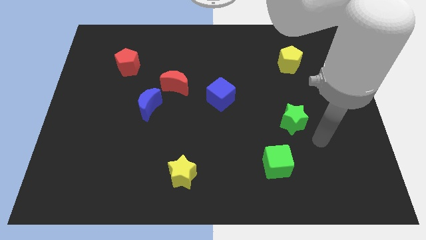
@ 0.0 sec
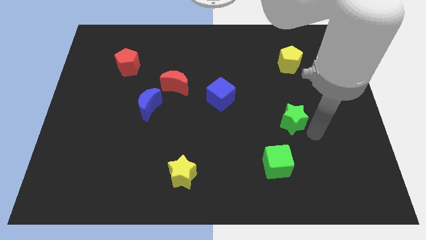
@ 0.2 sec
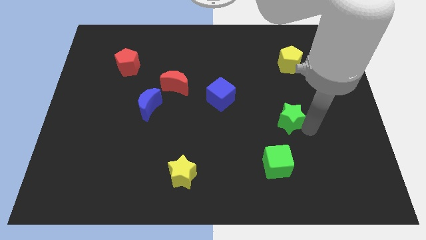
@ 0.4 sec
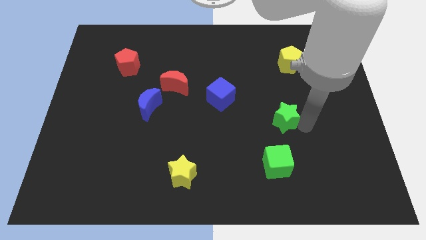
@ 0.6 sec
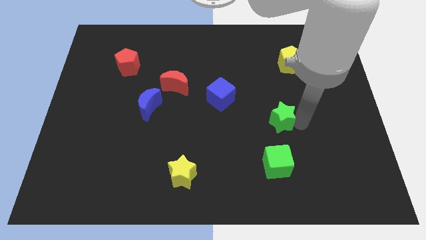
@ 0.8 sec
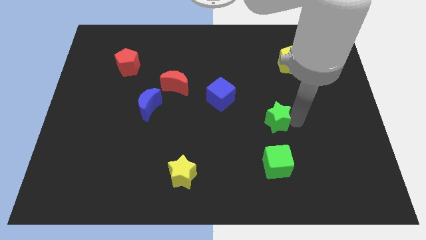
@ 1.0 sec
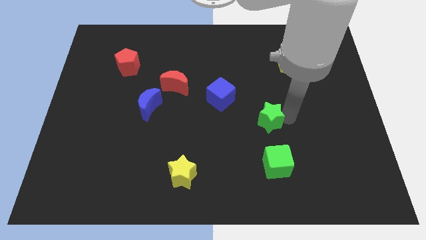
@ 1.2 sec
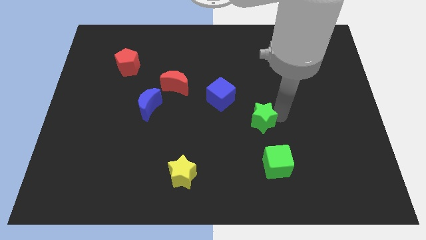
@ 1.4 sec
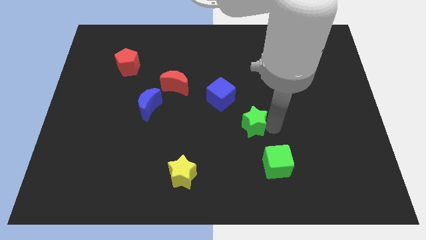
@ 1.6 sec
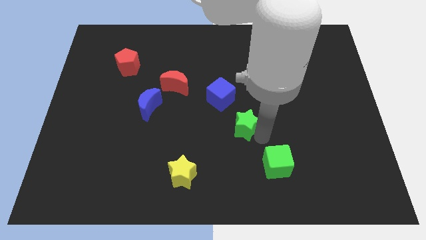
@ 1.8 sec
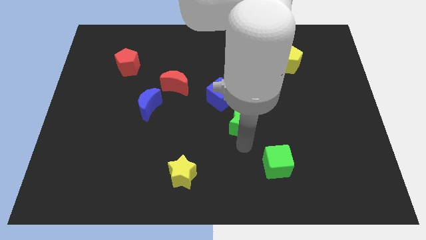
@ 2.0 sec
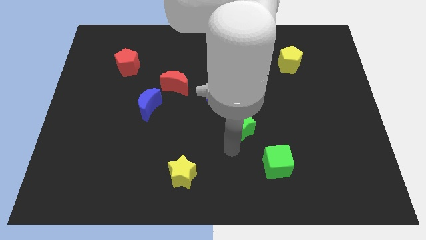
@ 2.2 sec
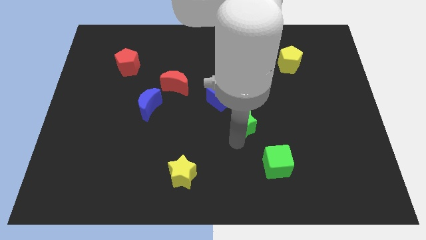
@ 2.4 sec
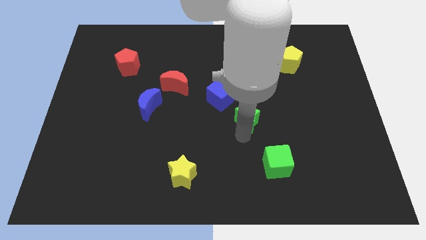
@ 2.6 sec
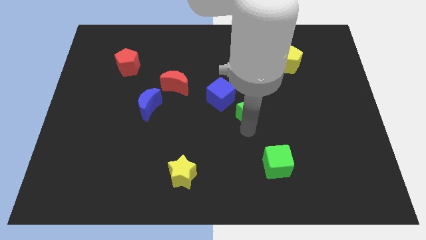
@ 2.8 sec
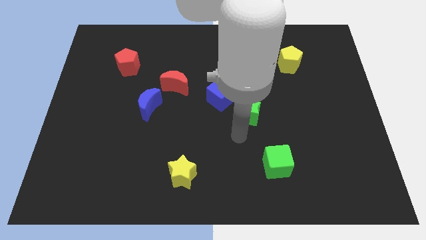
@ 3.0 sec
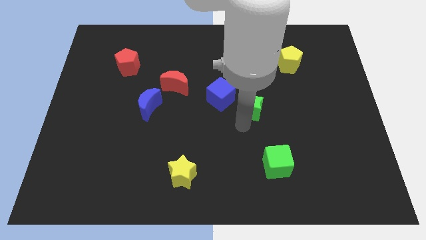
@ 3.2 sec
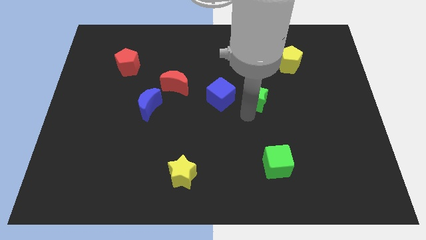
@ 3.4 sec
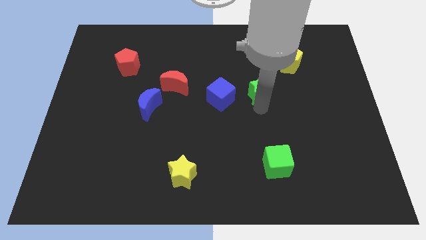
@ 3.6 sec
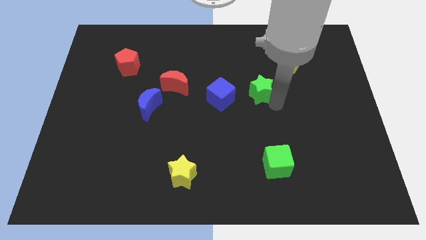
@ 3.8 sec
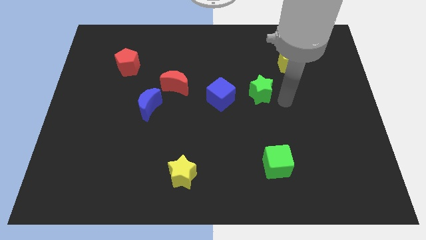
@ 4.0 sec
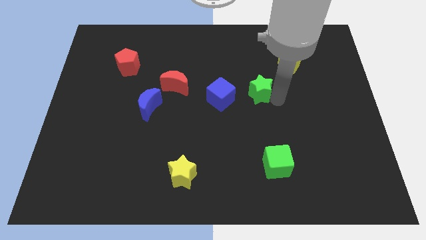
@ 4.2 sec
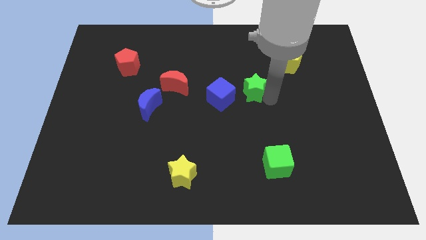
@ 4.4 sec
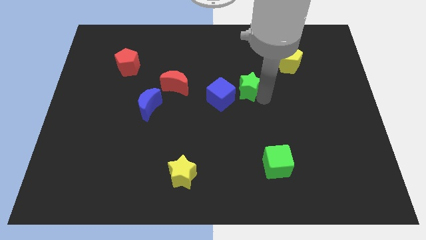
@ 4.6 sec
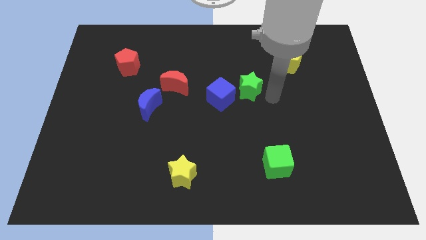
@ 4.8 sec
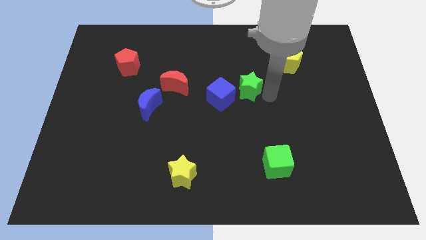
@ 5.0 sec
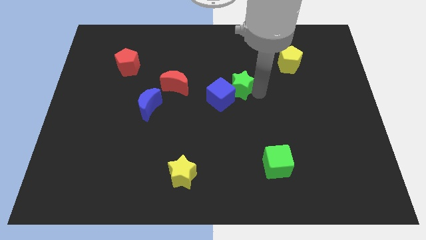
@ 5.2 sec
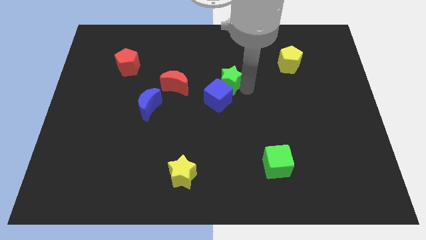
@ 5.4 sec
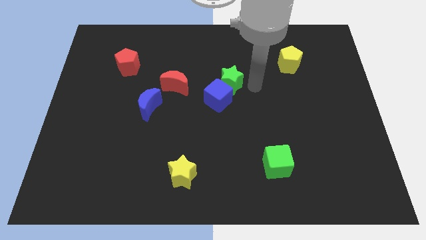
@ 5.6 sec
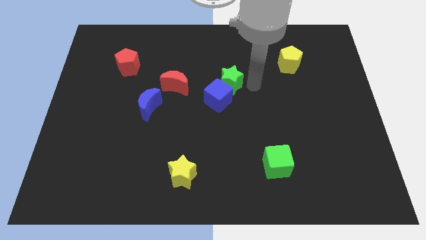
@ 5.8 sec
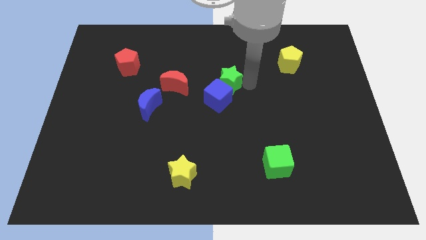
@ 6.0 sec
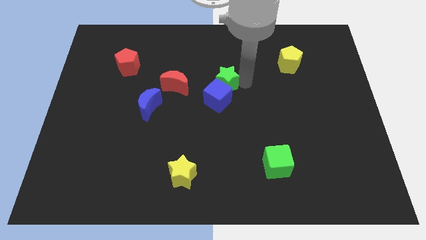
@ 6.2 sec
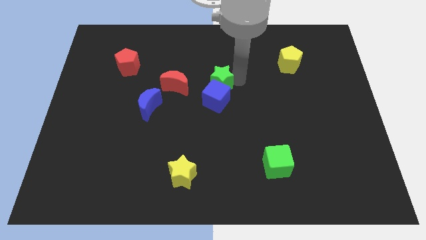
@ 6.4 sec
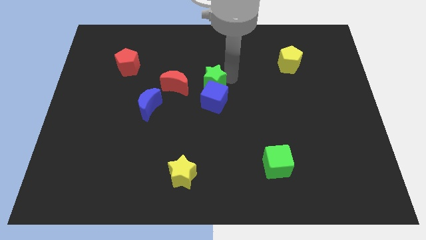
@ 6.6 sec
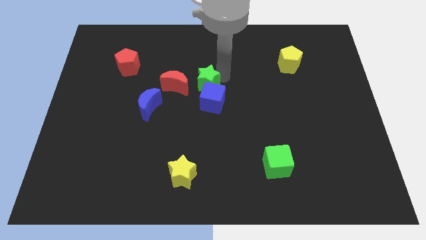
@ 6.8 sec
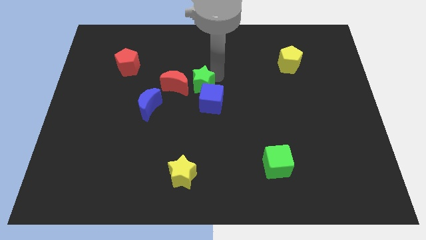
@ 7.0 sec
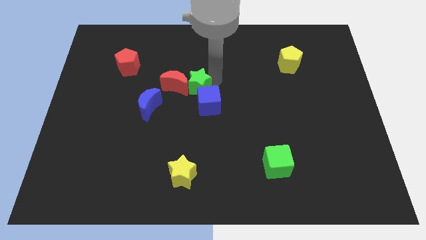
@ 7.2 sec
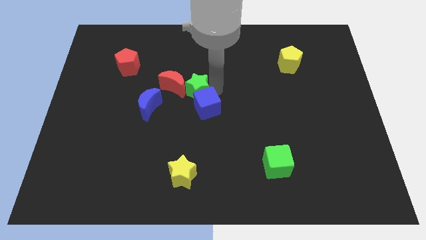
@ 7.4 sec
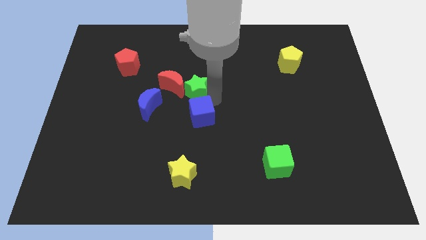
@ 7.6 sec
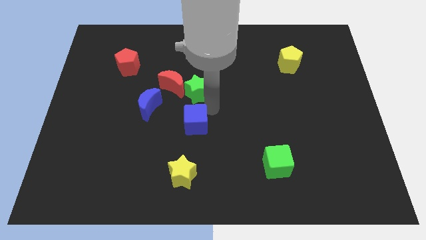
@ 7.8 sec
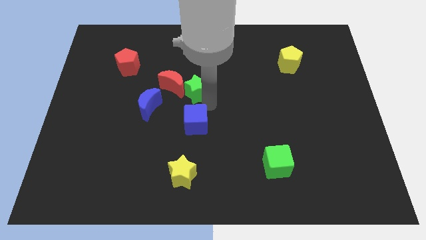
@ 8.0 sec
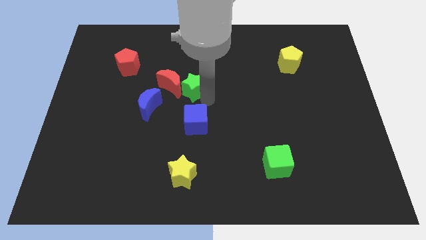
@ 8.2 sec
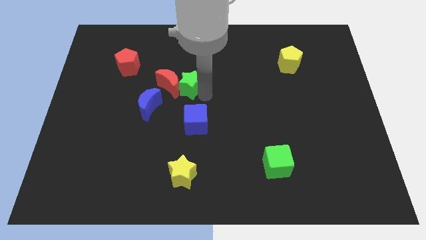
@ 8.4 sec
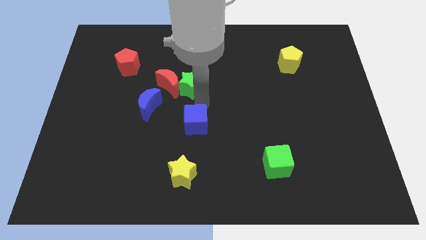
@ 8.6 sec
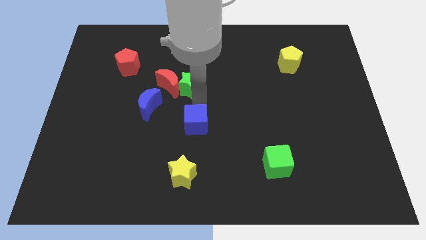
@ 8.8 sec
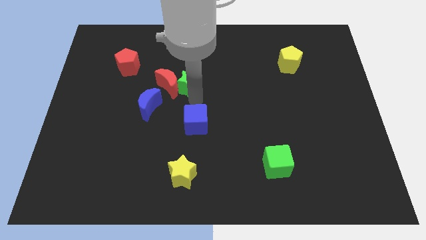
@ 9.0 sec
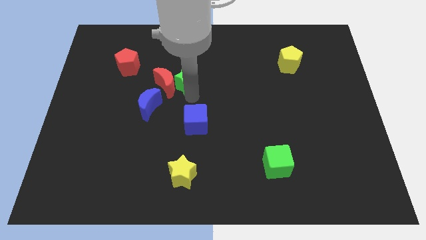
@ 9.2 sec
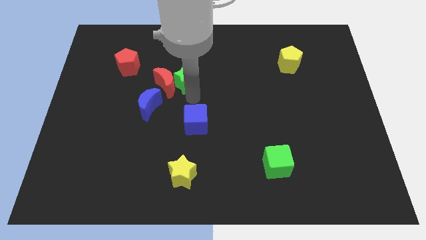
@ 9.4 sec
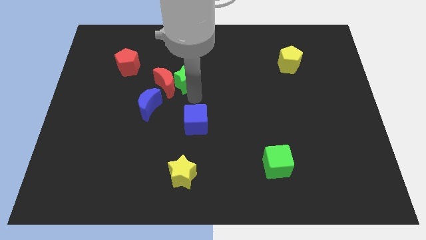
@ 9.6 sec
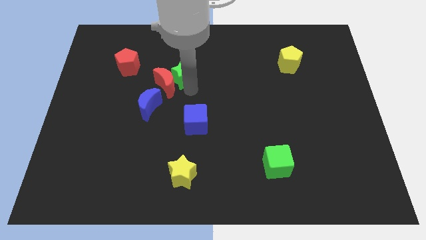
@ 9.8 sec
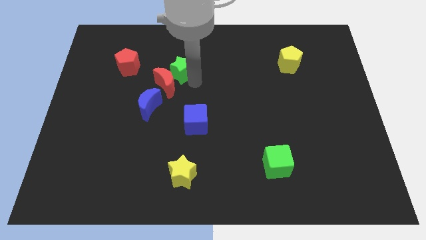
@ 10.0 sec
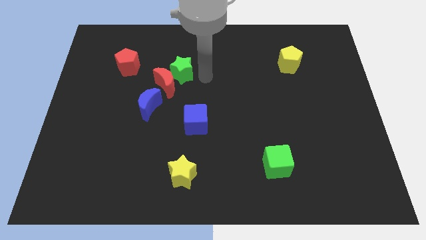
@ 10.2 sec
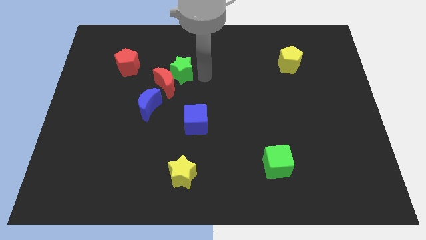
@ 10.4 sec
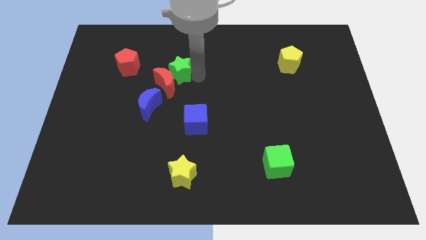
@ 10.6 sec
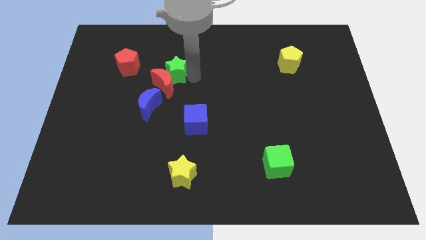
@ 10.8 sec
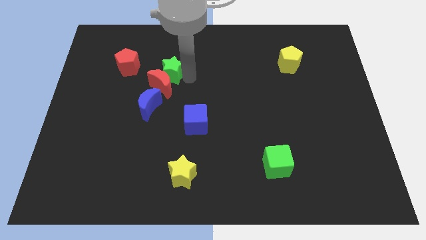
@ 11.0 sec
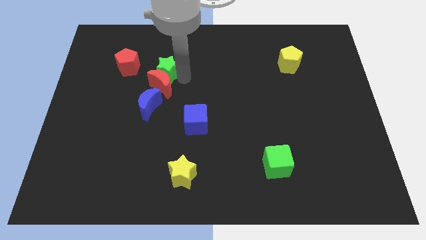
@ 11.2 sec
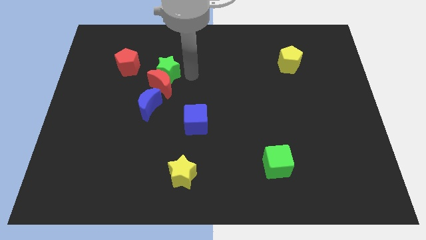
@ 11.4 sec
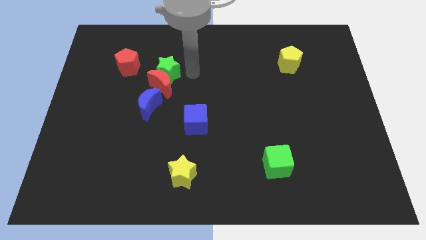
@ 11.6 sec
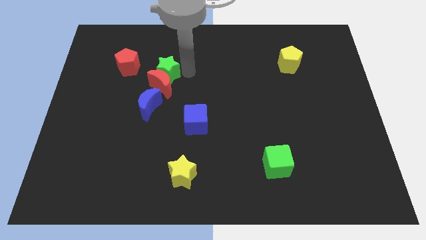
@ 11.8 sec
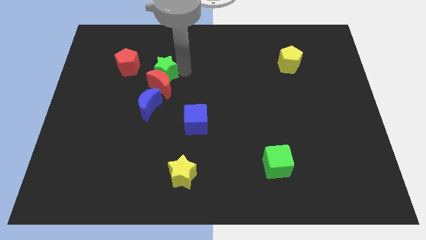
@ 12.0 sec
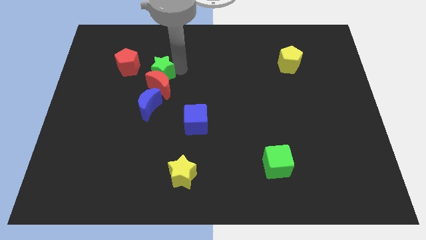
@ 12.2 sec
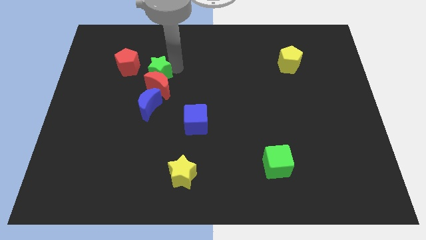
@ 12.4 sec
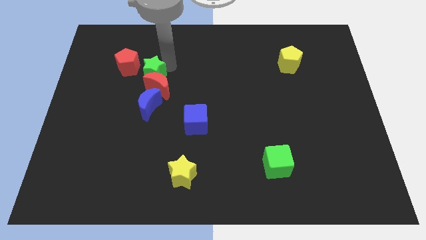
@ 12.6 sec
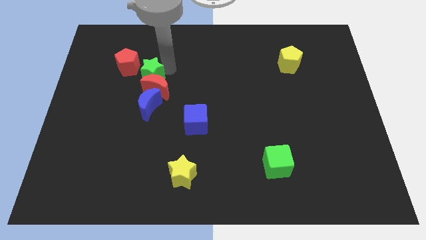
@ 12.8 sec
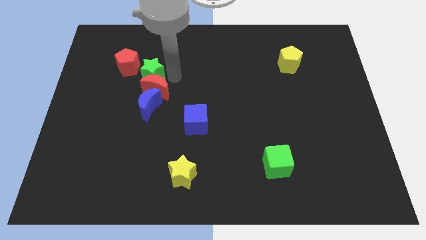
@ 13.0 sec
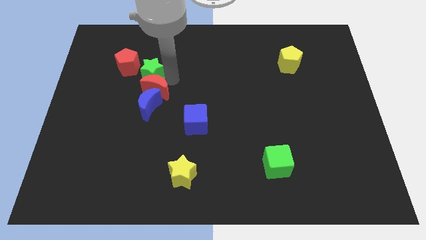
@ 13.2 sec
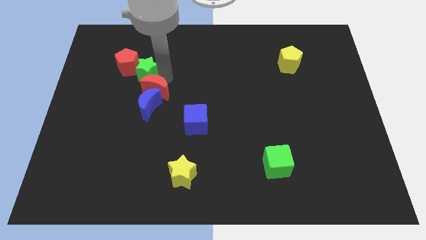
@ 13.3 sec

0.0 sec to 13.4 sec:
put the green star close to the red pentagon
